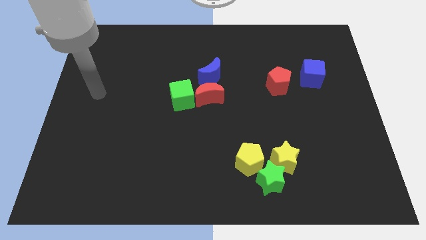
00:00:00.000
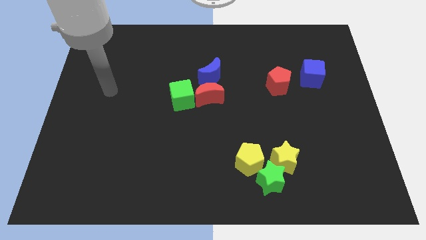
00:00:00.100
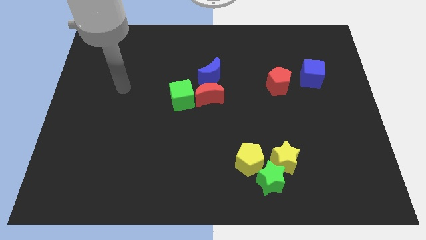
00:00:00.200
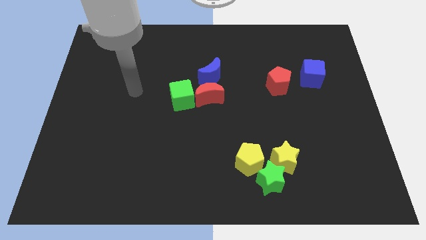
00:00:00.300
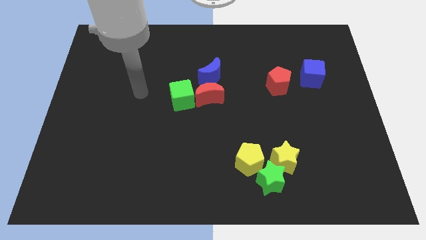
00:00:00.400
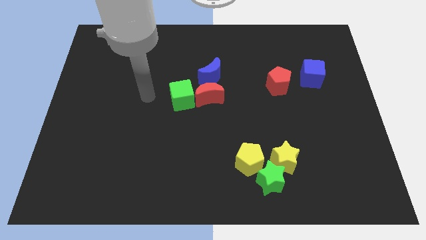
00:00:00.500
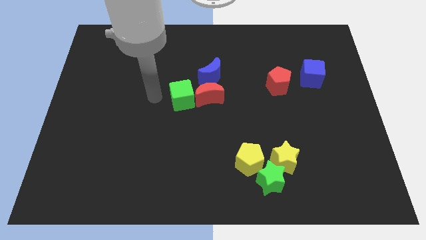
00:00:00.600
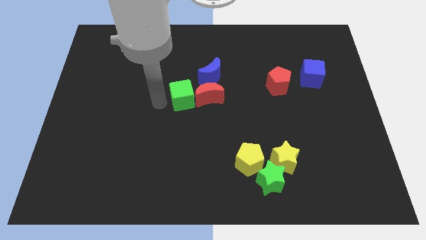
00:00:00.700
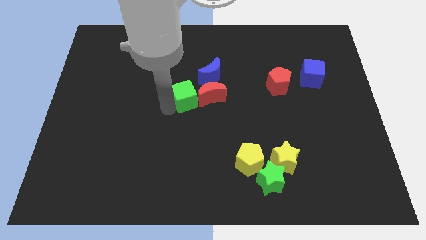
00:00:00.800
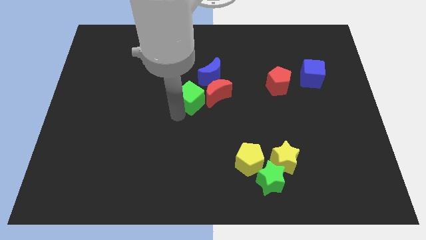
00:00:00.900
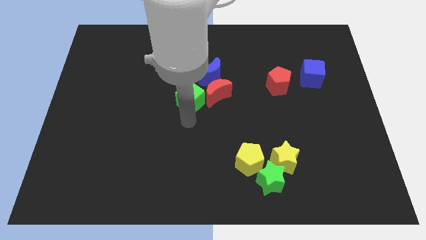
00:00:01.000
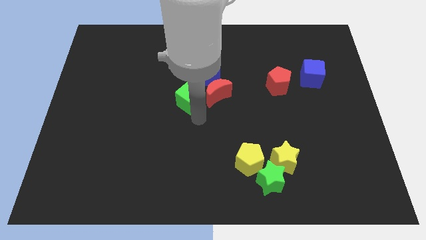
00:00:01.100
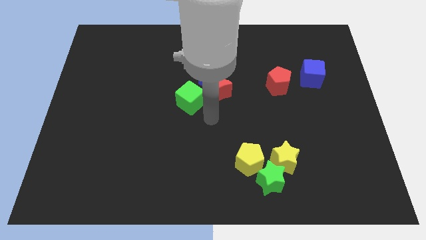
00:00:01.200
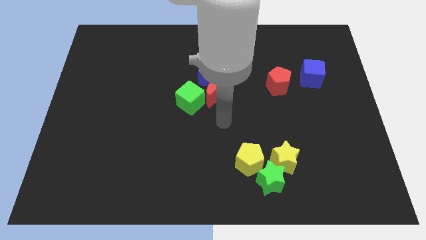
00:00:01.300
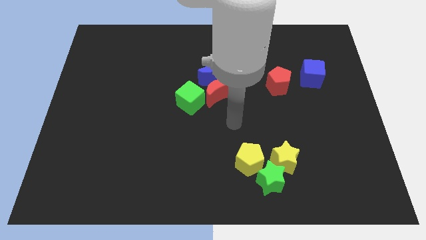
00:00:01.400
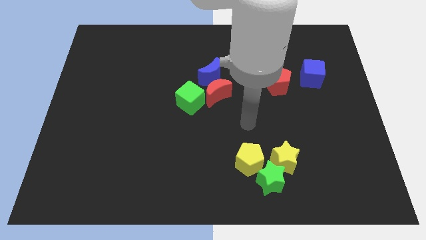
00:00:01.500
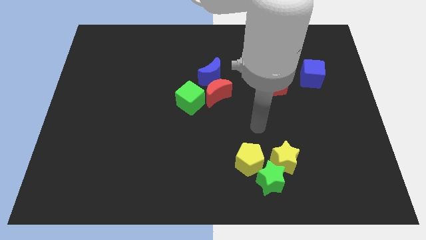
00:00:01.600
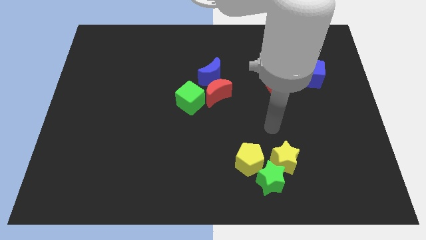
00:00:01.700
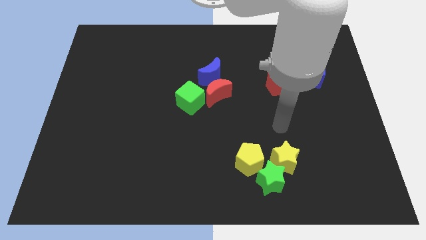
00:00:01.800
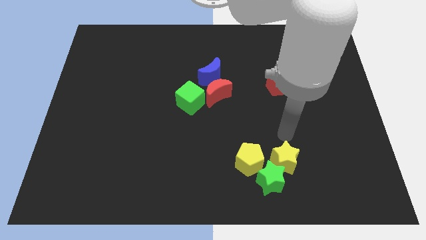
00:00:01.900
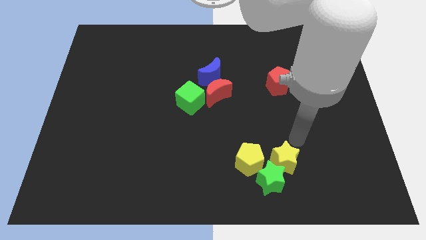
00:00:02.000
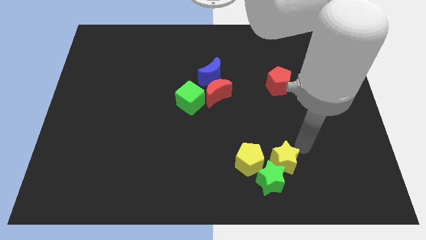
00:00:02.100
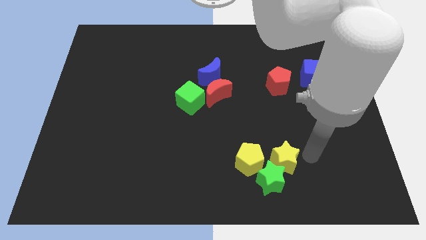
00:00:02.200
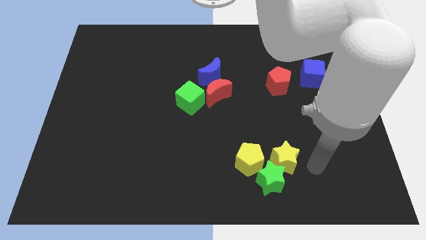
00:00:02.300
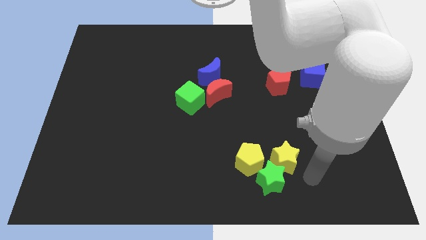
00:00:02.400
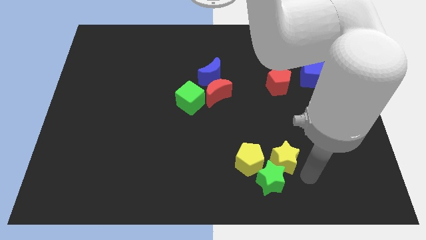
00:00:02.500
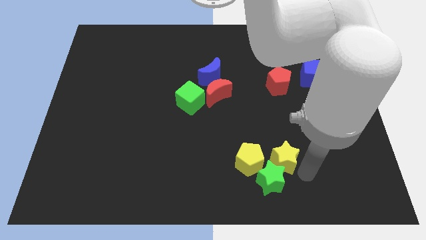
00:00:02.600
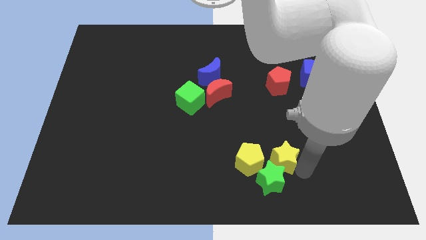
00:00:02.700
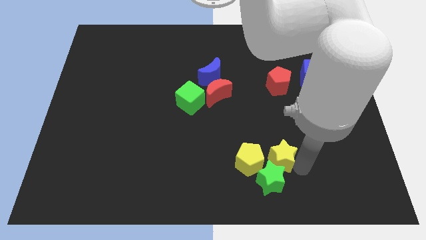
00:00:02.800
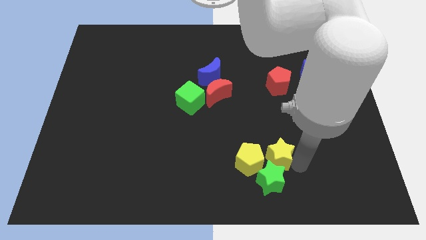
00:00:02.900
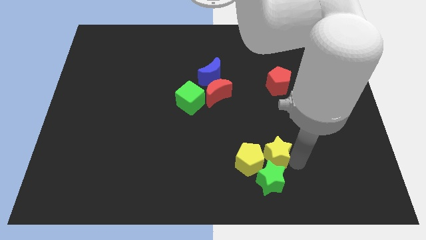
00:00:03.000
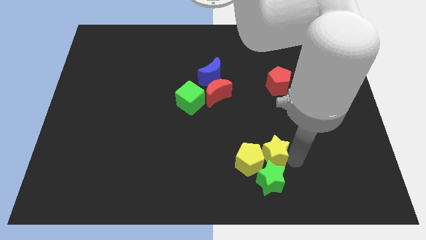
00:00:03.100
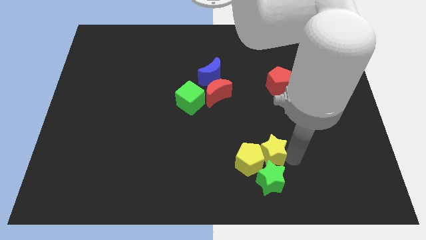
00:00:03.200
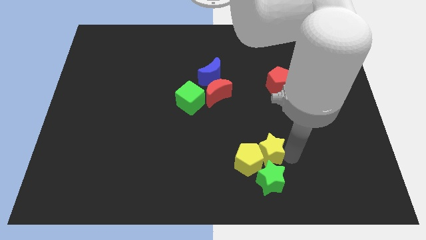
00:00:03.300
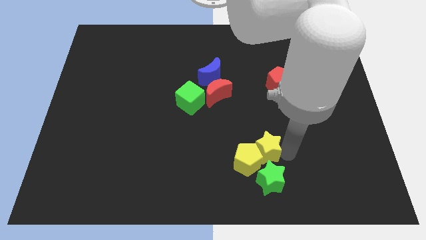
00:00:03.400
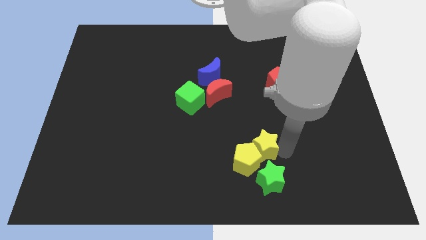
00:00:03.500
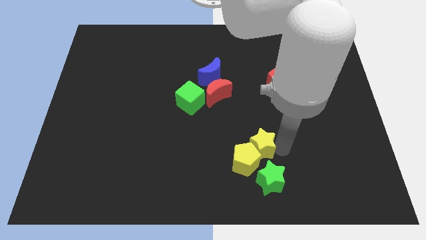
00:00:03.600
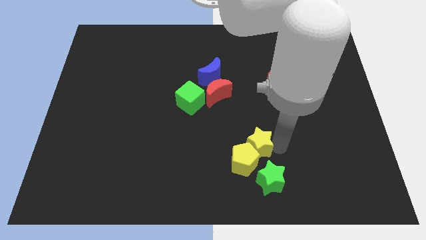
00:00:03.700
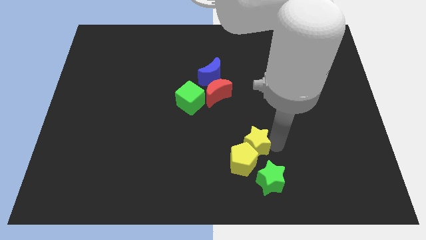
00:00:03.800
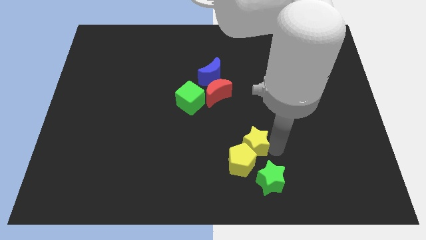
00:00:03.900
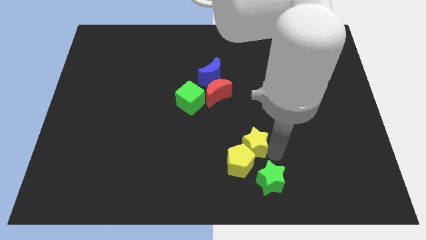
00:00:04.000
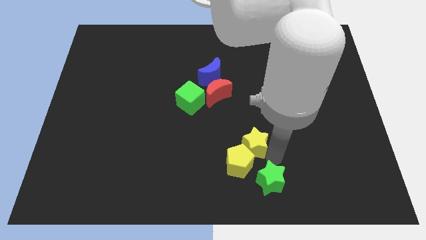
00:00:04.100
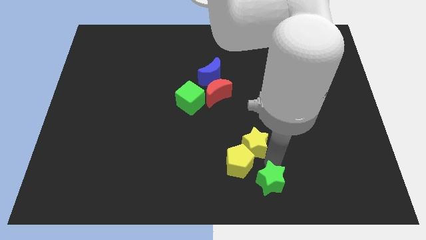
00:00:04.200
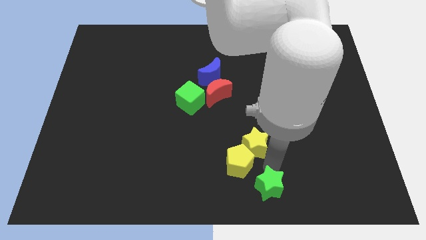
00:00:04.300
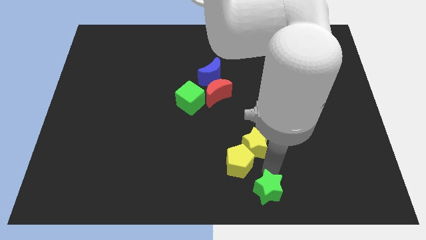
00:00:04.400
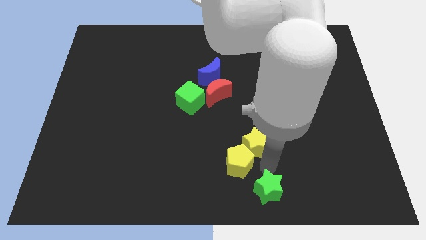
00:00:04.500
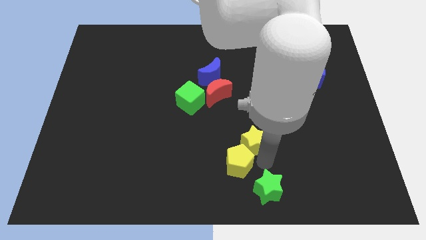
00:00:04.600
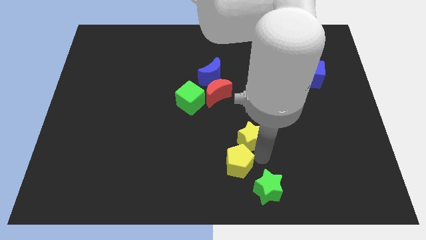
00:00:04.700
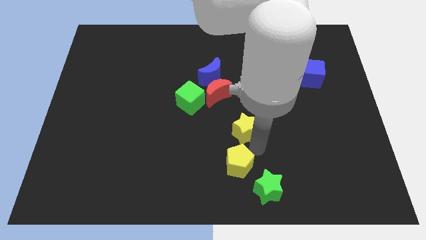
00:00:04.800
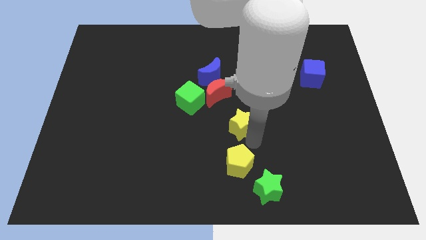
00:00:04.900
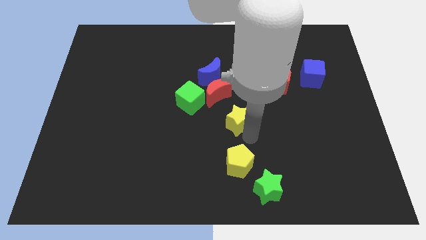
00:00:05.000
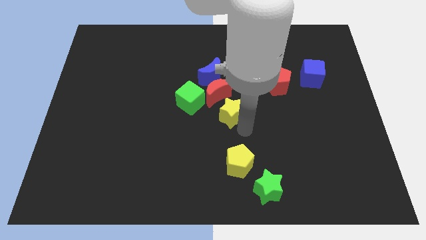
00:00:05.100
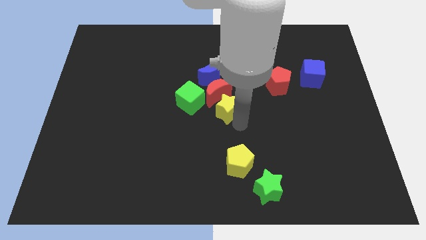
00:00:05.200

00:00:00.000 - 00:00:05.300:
slide the yellow star next to the red moon

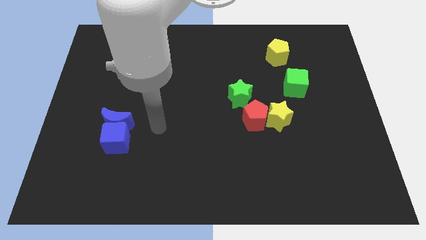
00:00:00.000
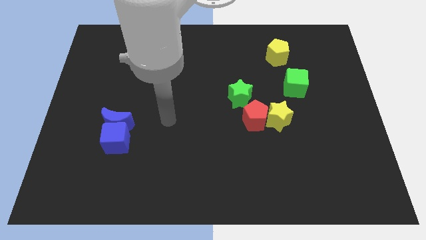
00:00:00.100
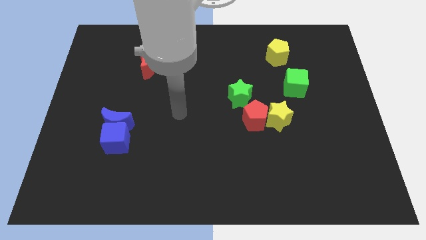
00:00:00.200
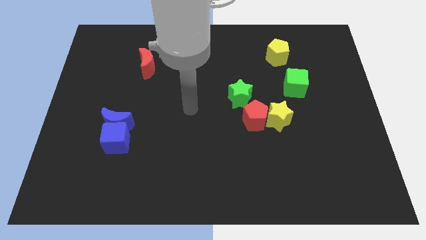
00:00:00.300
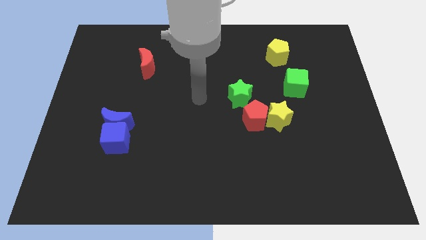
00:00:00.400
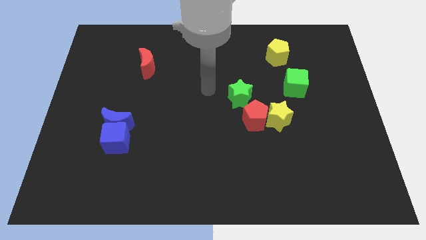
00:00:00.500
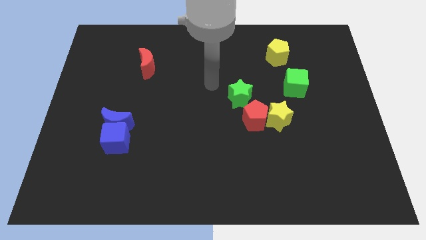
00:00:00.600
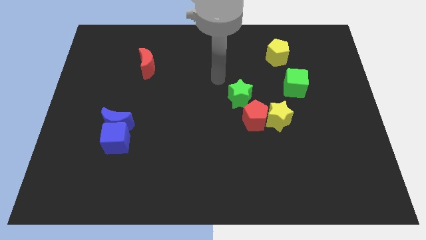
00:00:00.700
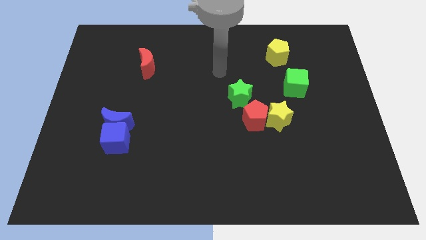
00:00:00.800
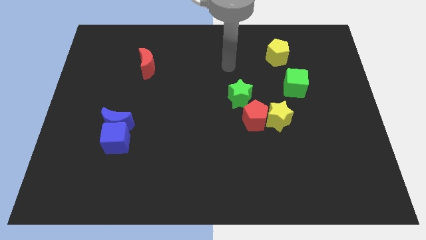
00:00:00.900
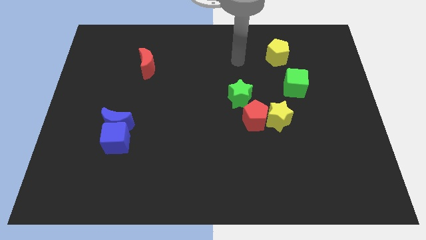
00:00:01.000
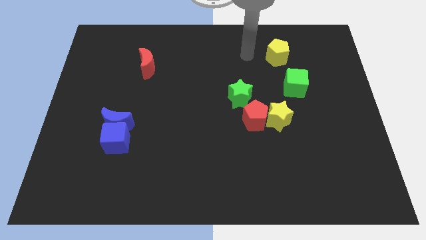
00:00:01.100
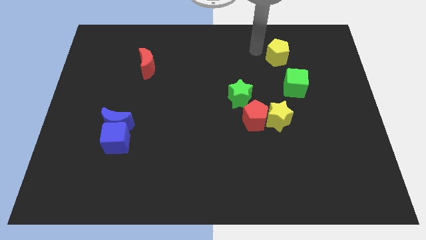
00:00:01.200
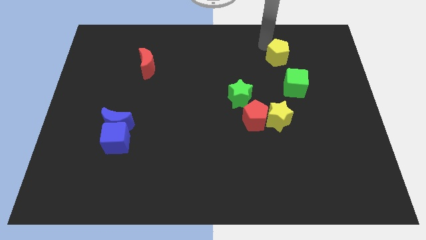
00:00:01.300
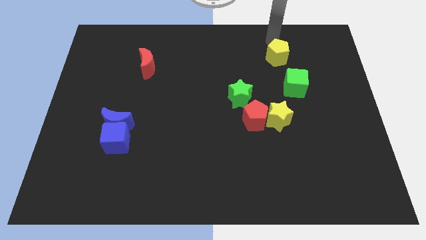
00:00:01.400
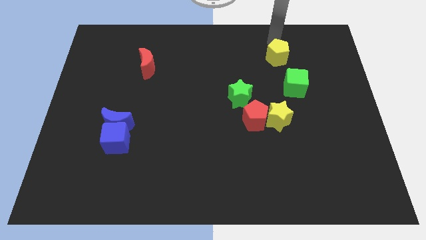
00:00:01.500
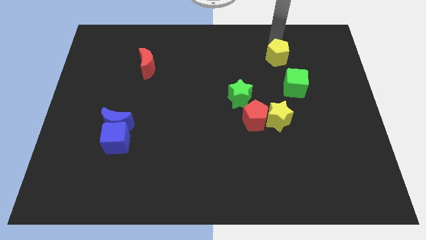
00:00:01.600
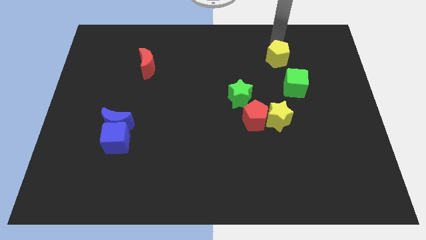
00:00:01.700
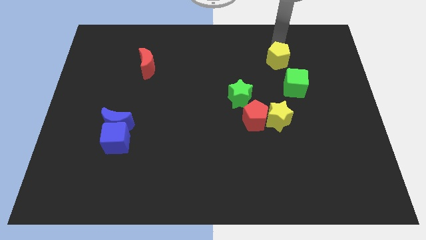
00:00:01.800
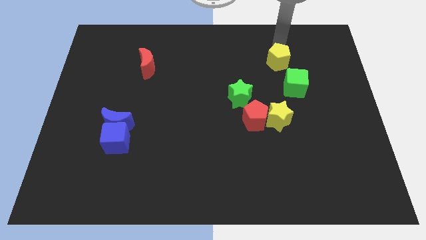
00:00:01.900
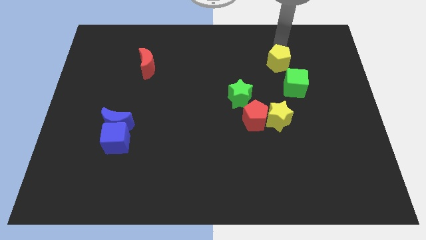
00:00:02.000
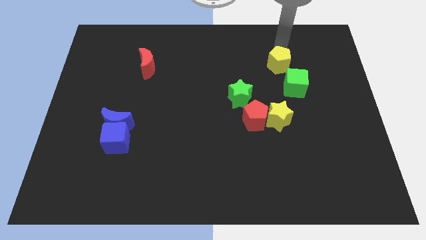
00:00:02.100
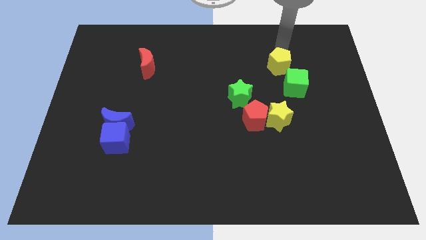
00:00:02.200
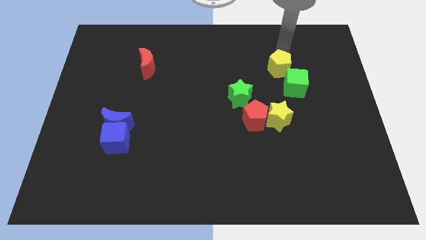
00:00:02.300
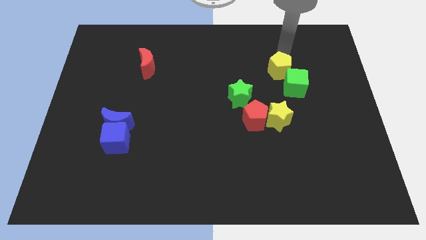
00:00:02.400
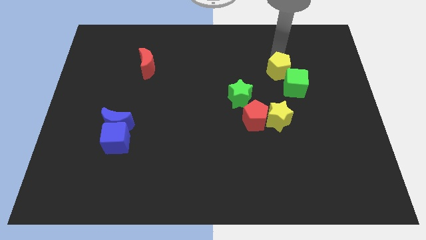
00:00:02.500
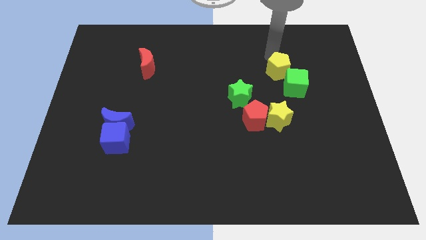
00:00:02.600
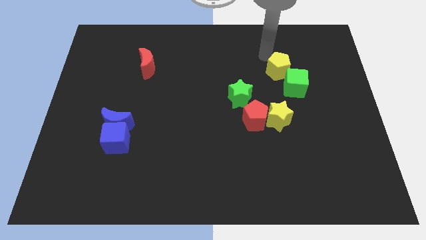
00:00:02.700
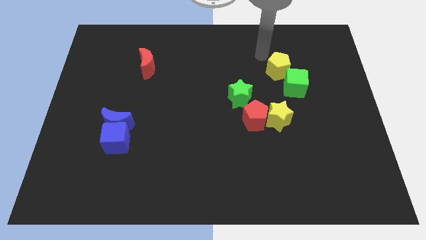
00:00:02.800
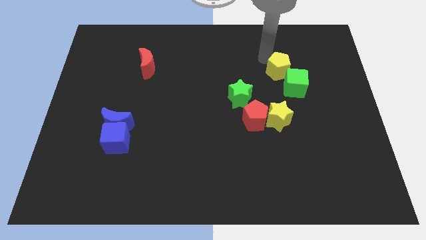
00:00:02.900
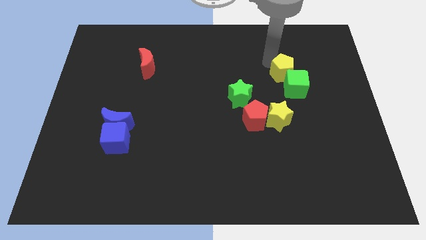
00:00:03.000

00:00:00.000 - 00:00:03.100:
slide the yellow pentagon close to the green cube
